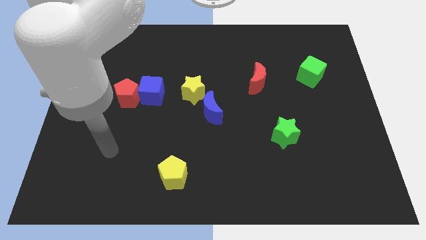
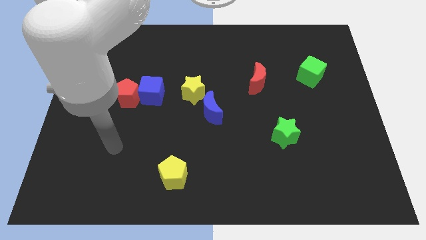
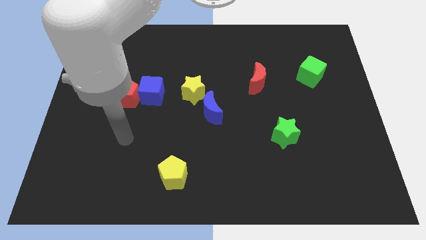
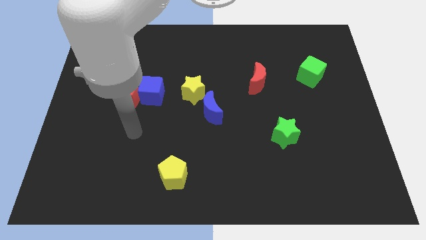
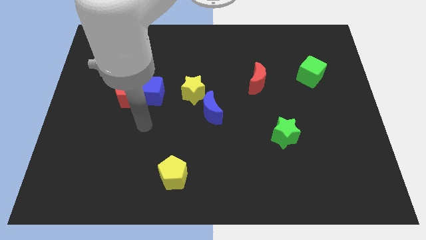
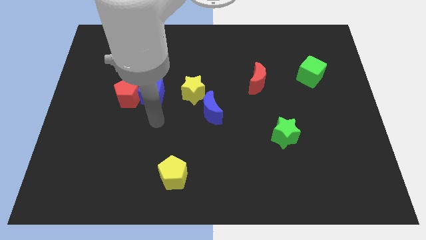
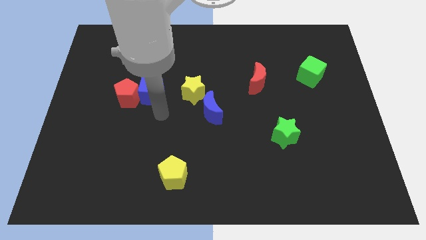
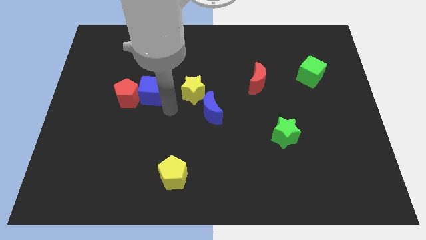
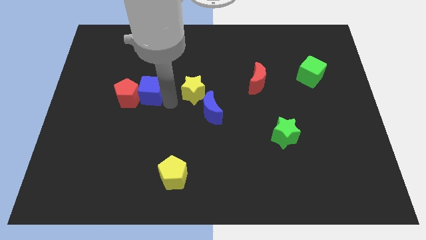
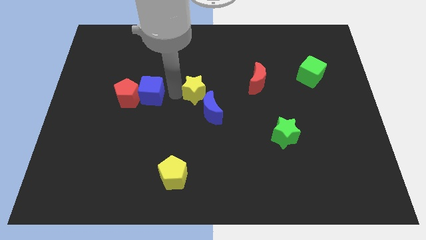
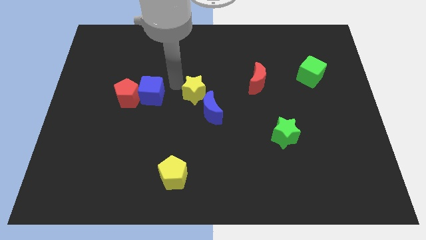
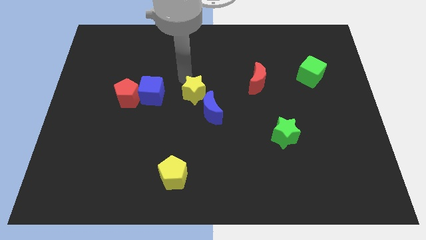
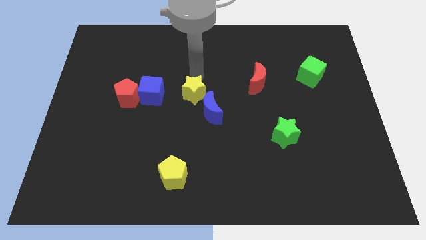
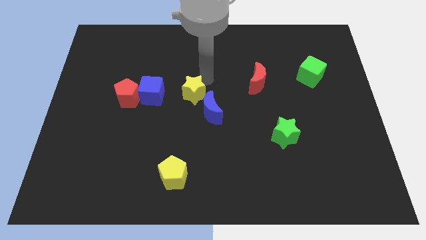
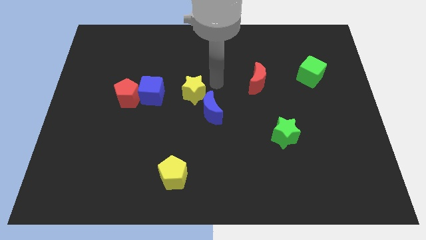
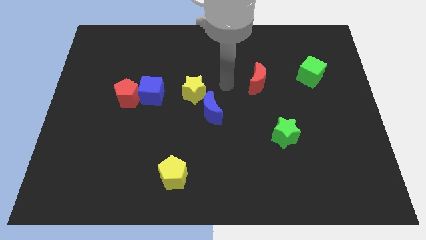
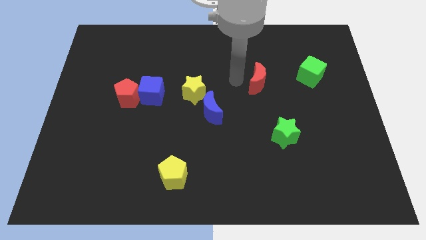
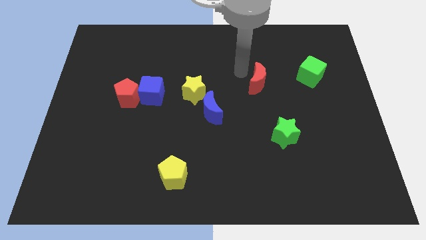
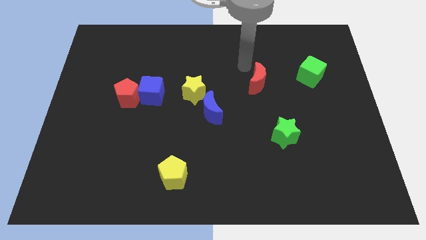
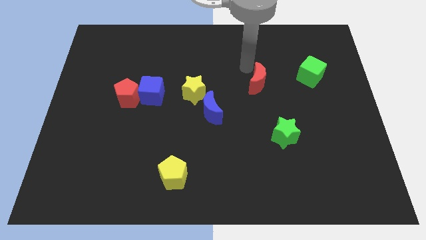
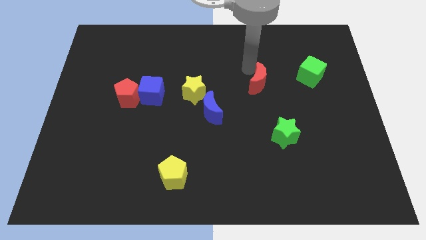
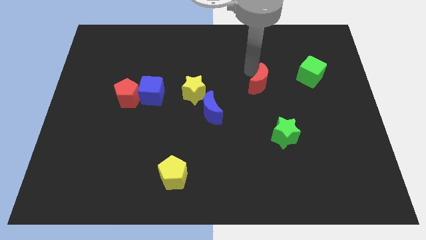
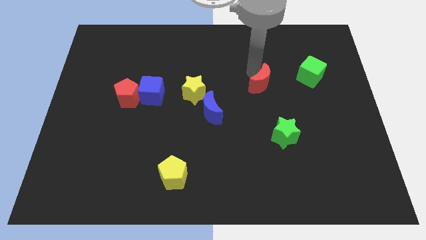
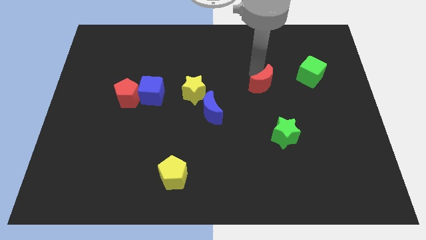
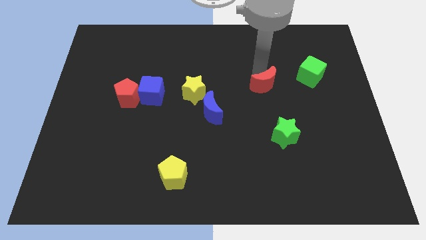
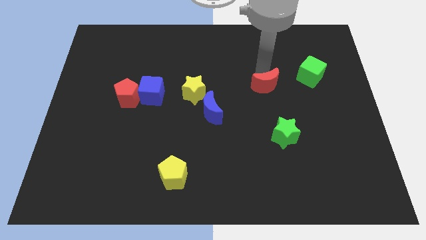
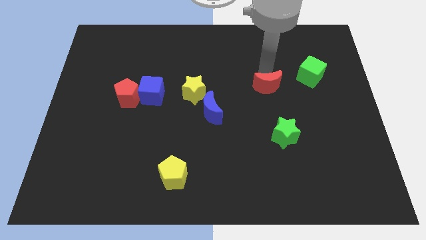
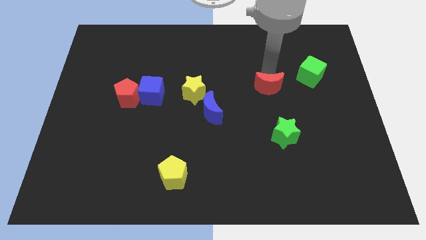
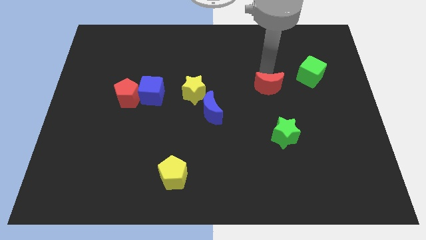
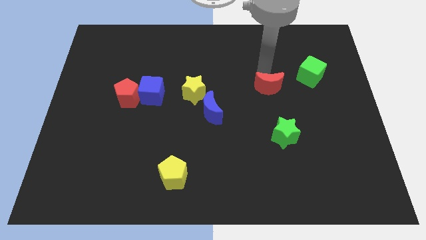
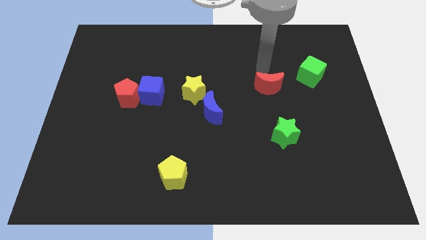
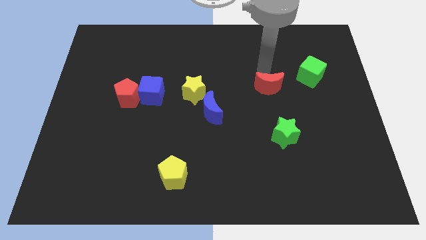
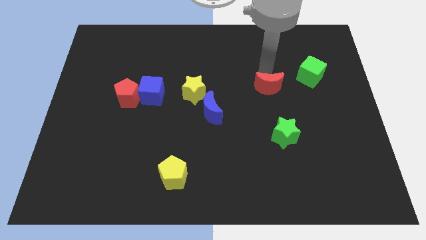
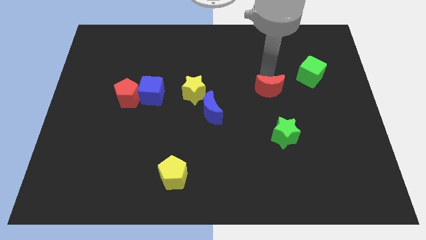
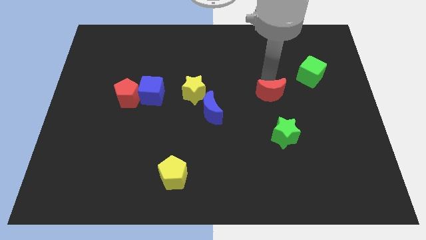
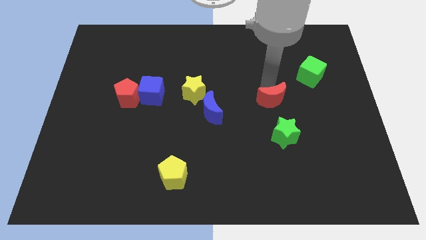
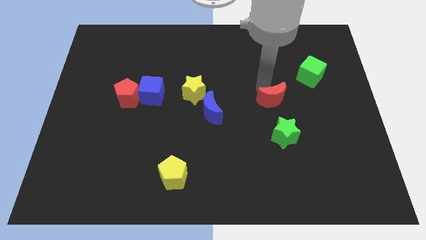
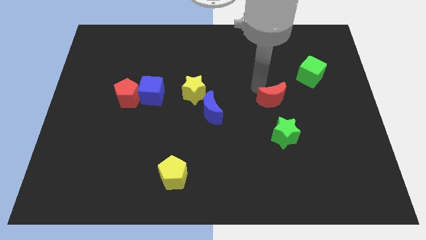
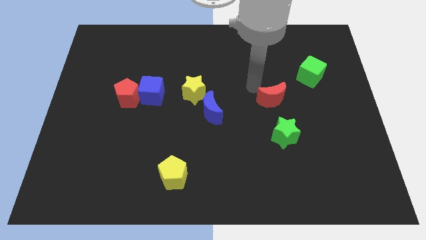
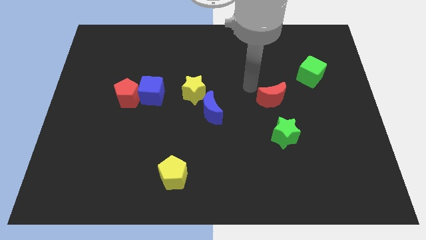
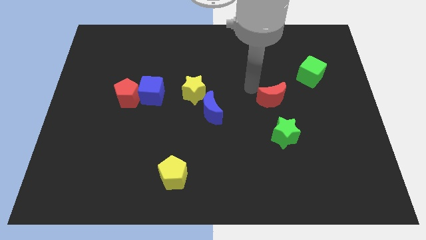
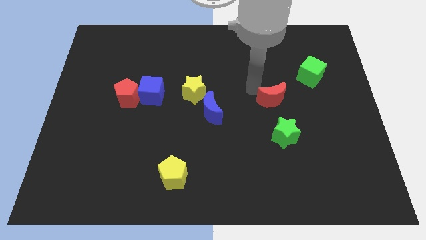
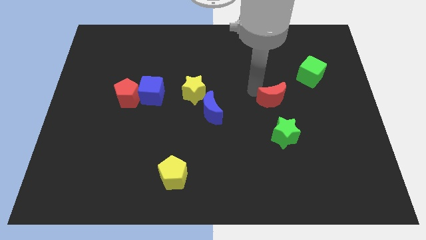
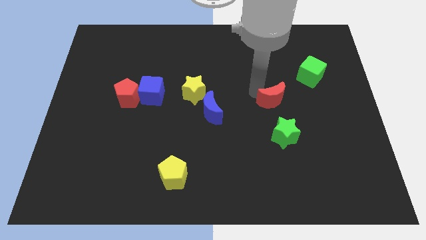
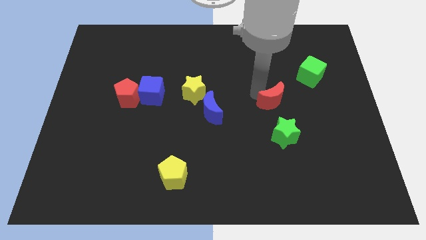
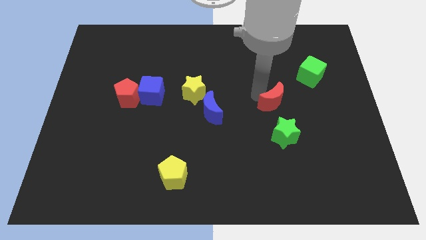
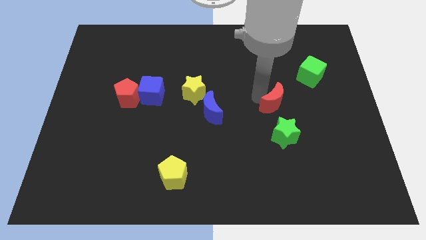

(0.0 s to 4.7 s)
slightly push the red moon diagonally down and to the right

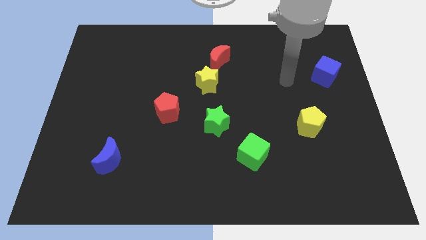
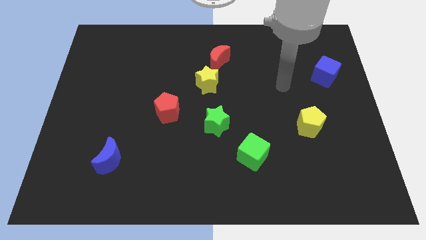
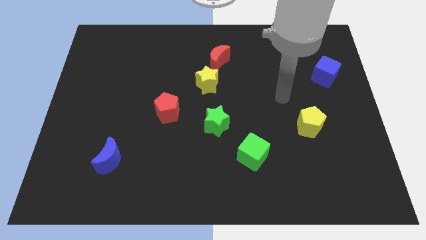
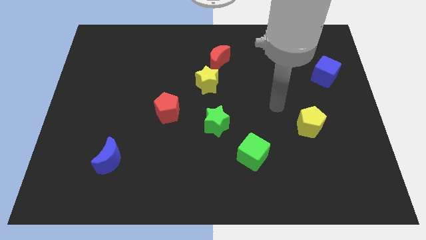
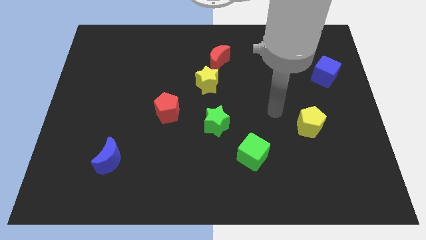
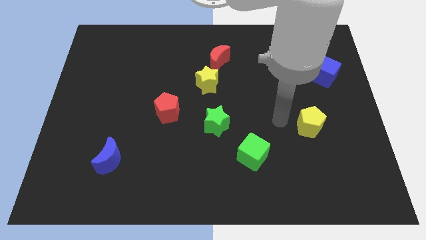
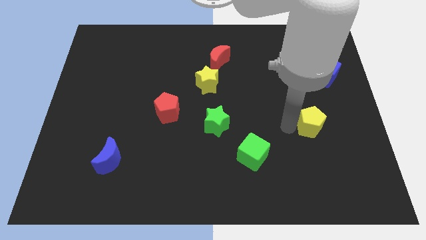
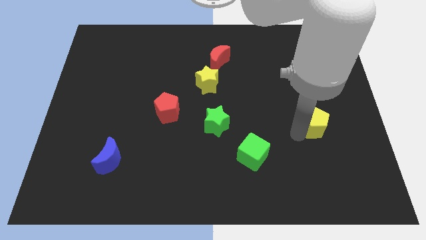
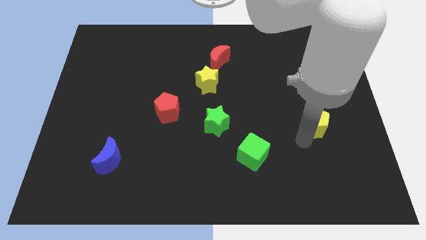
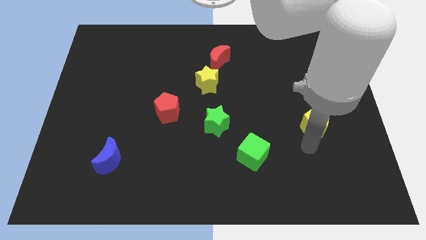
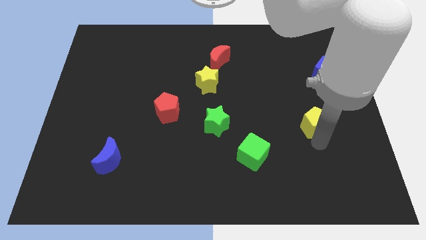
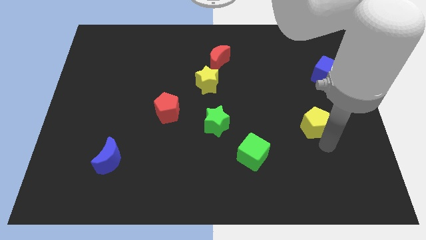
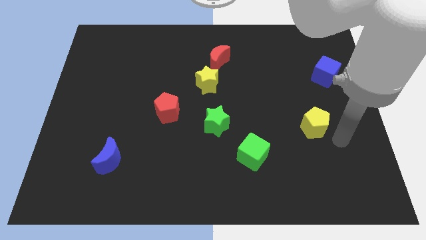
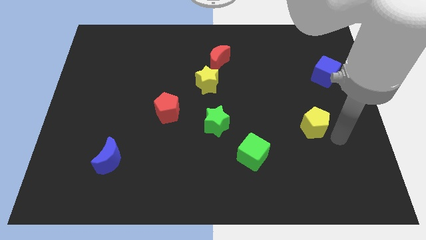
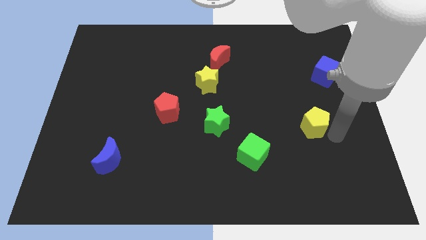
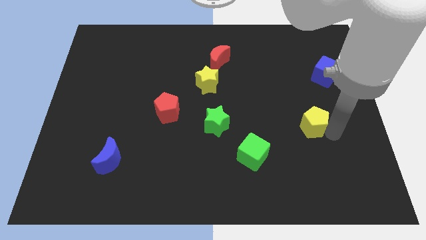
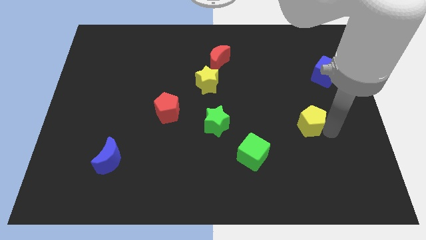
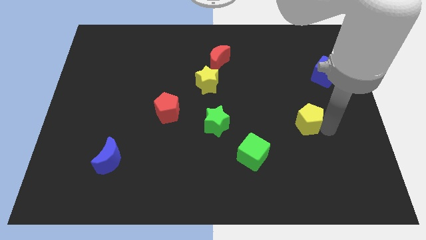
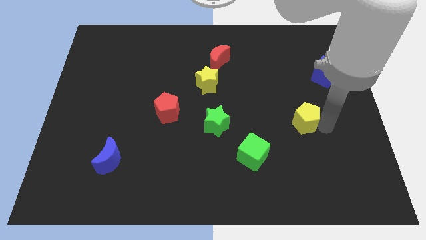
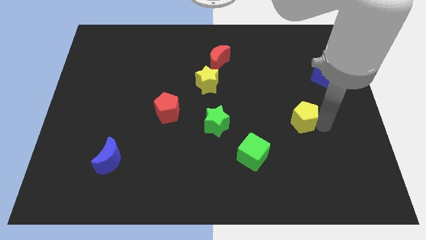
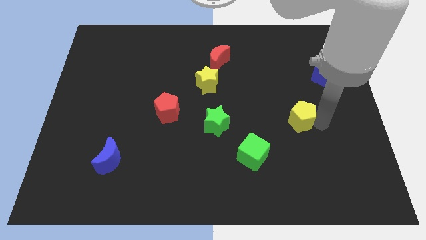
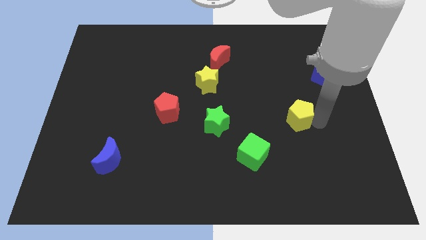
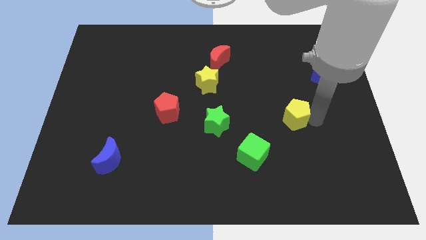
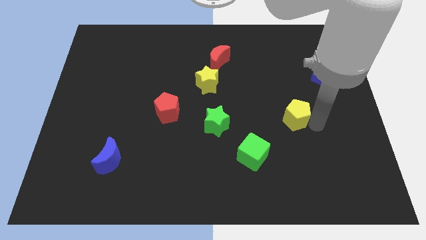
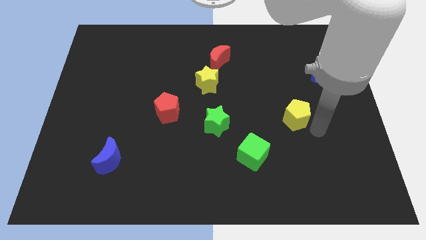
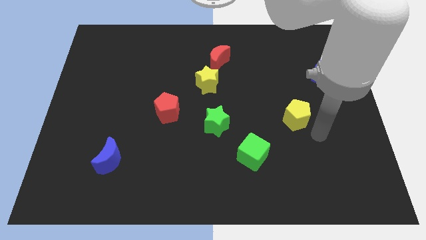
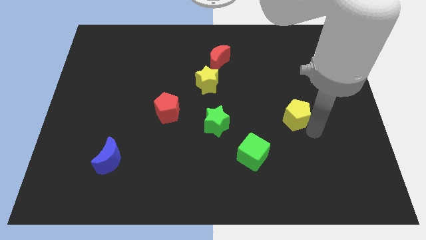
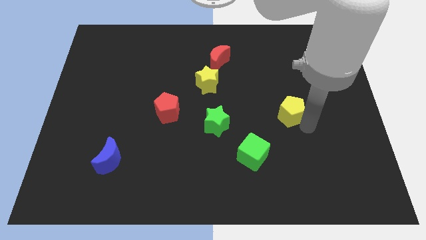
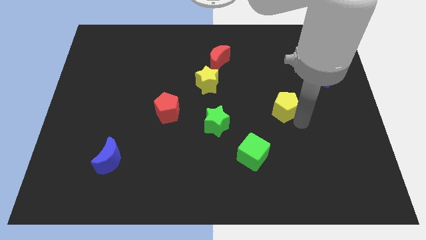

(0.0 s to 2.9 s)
push the yellow pentagon a little upwards and left diagonally

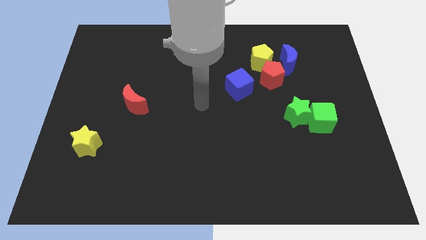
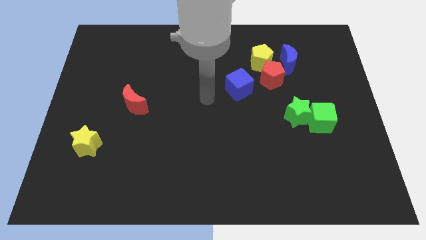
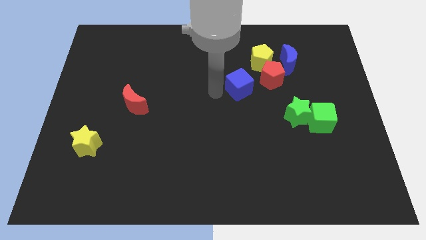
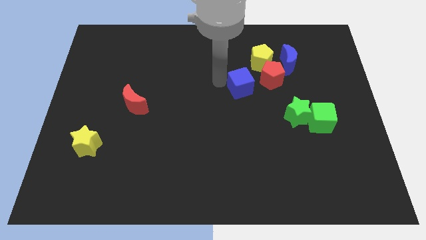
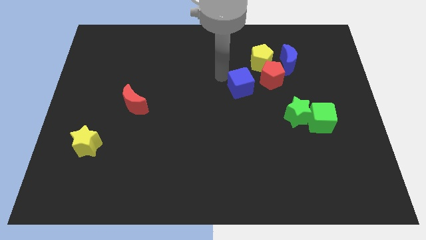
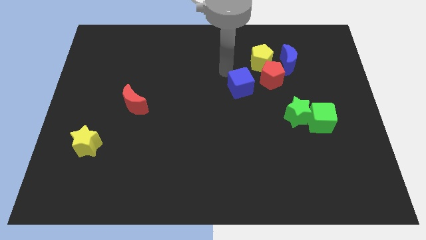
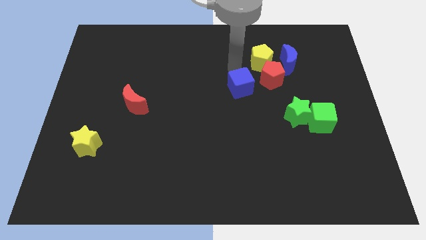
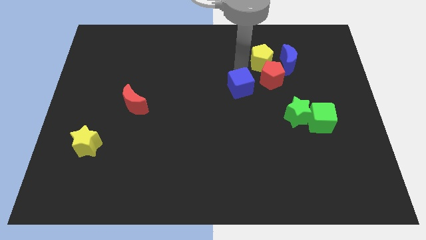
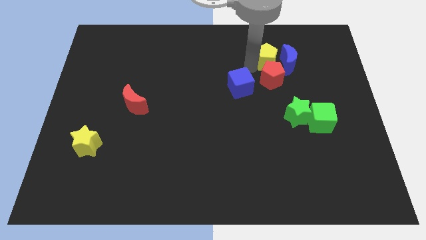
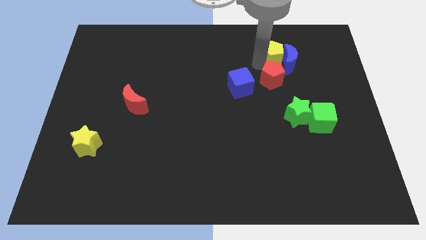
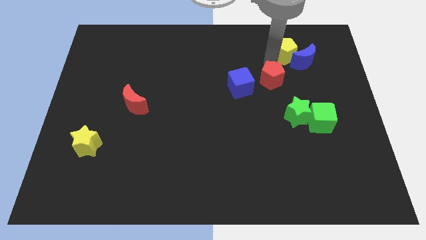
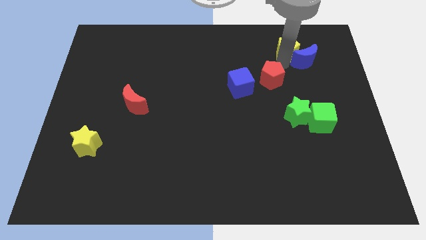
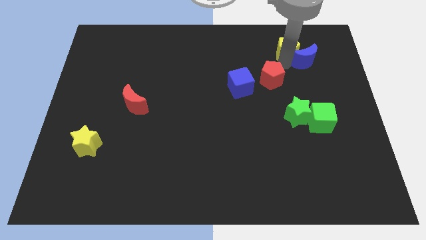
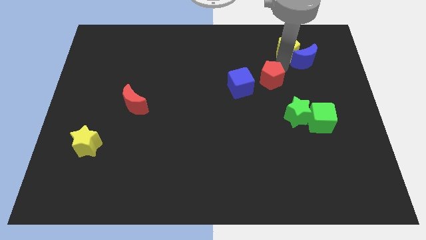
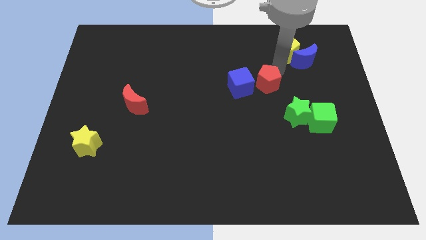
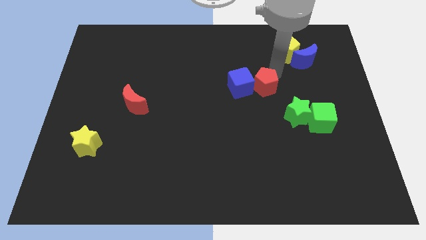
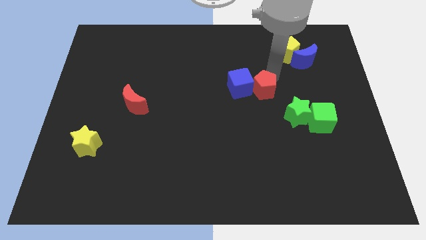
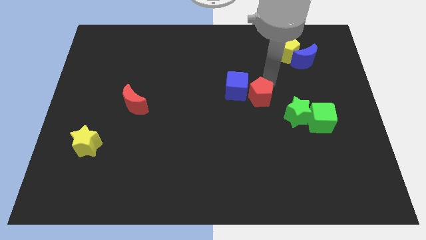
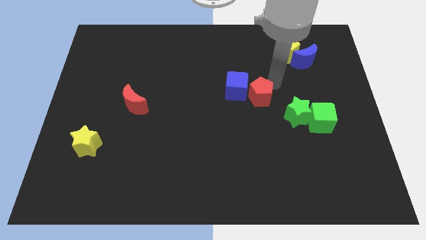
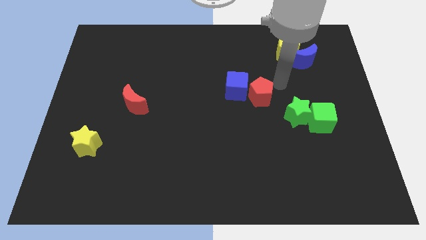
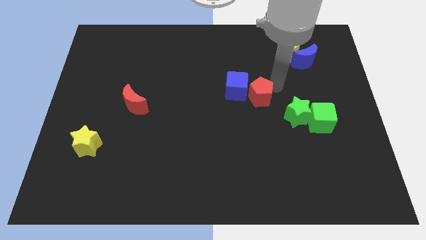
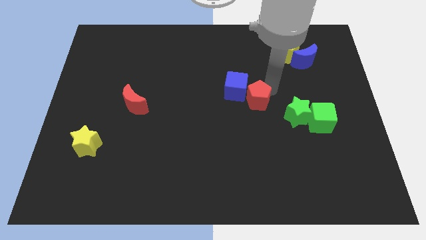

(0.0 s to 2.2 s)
move the red pentagon slightly down and left
